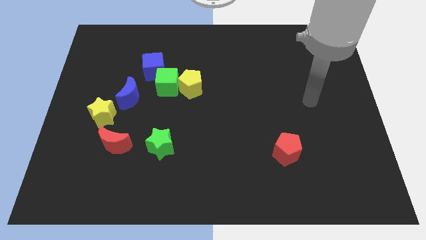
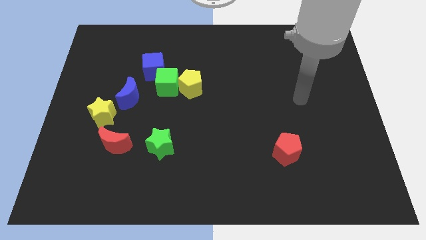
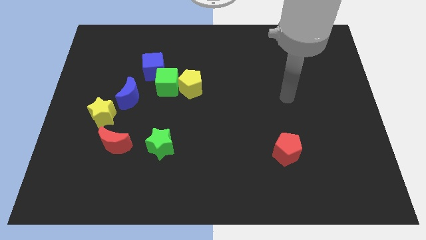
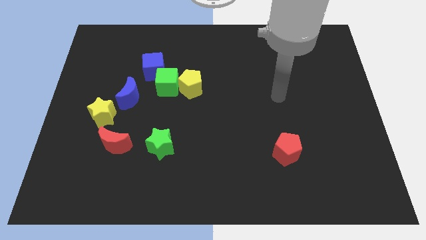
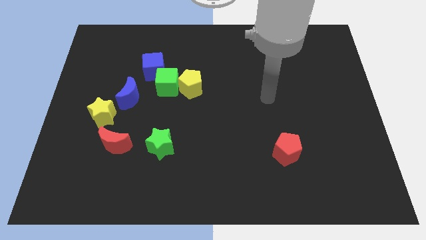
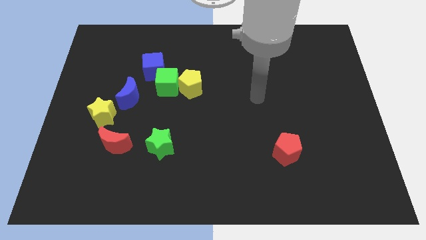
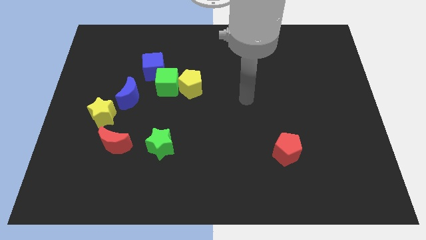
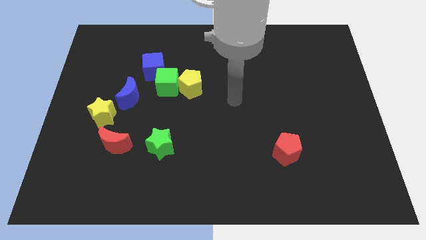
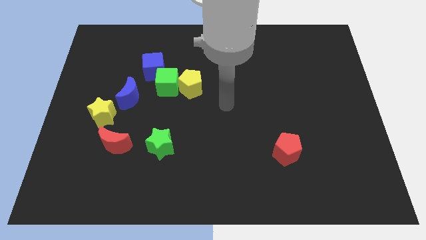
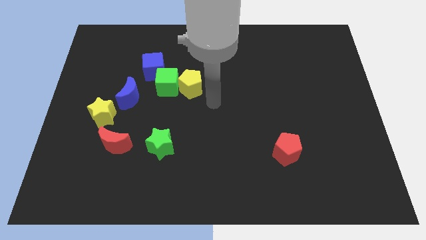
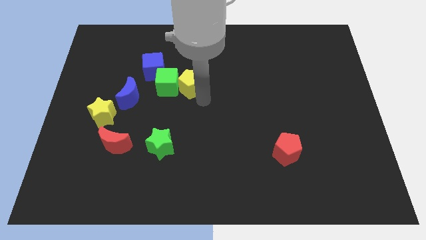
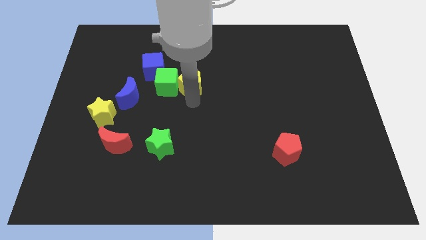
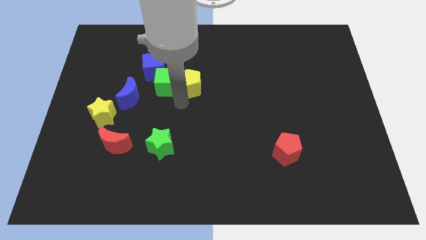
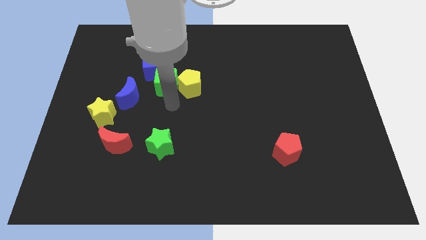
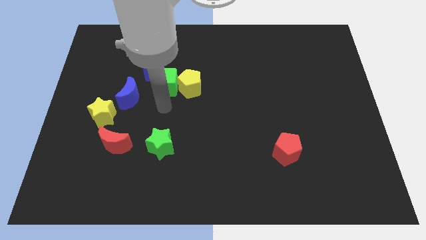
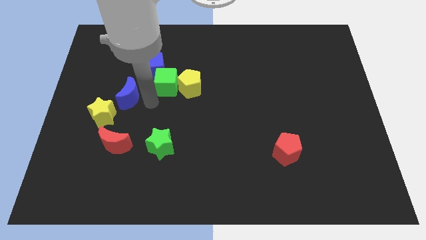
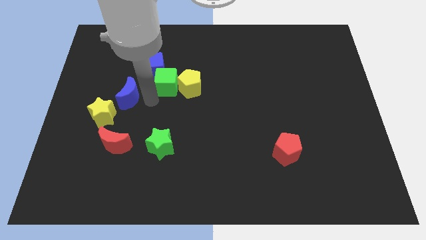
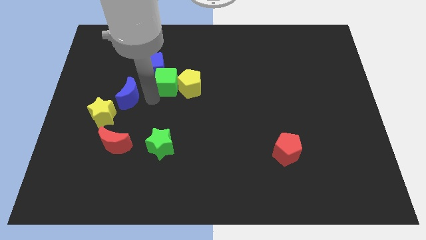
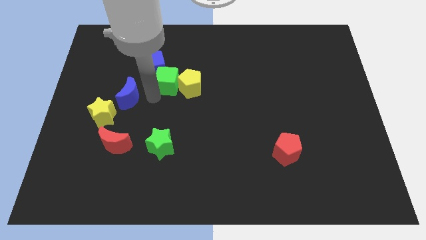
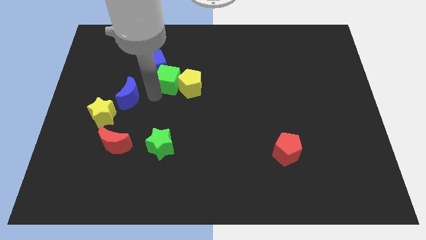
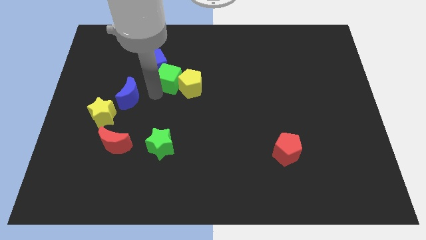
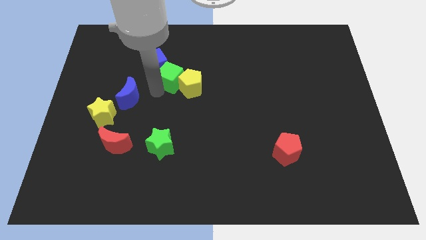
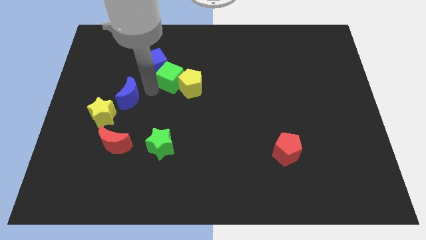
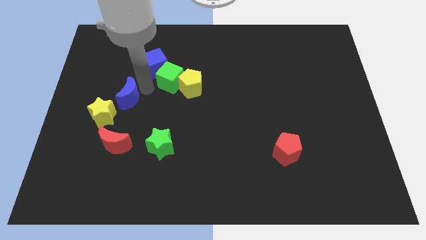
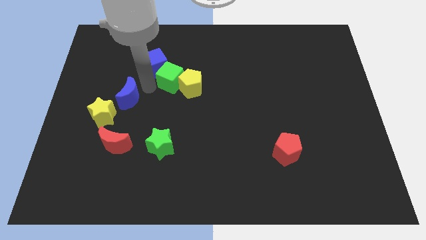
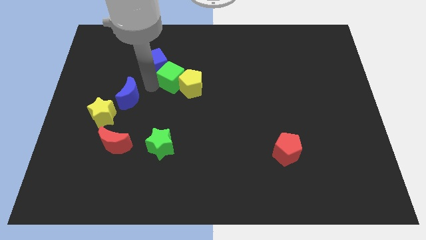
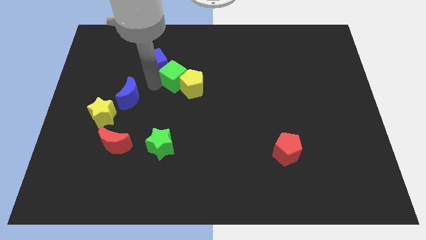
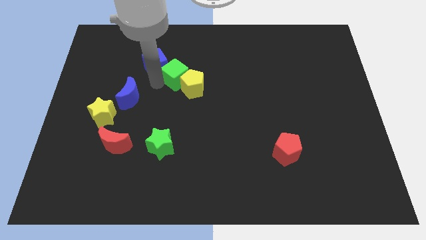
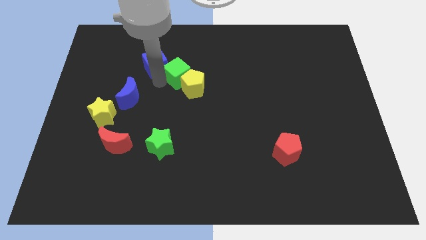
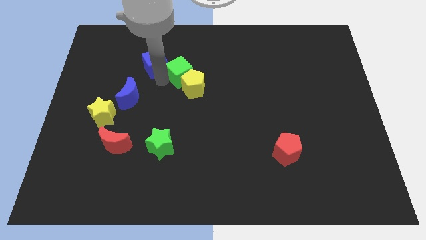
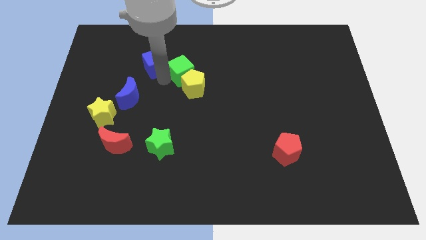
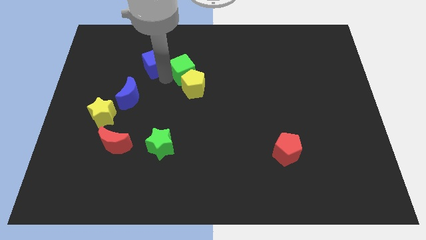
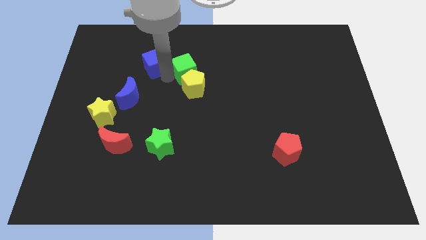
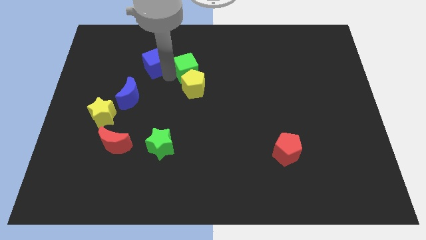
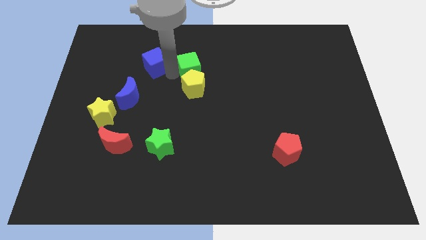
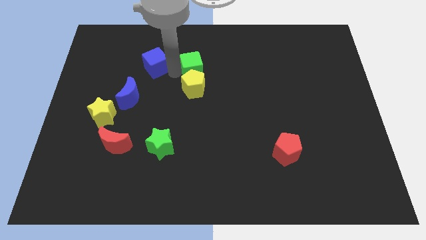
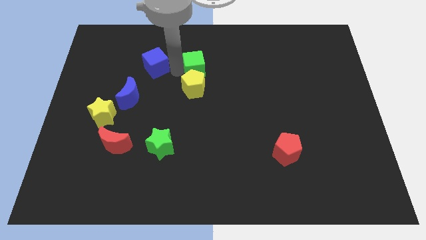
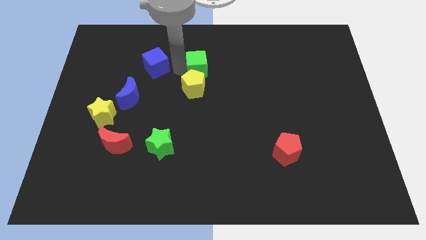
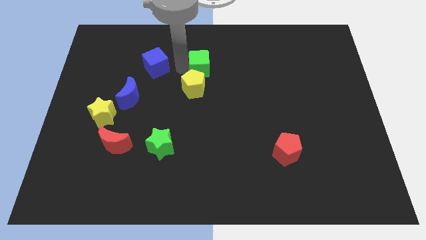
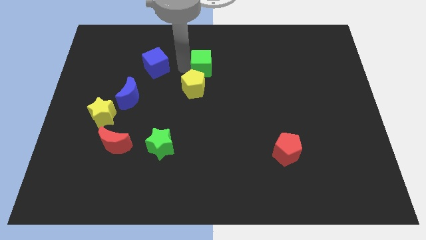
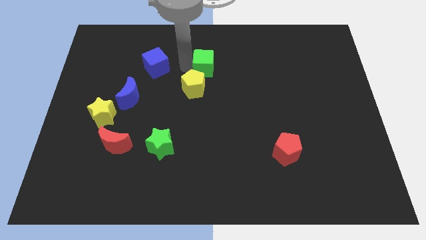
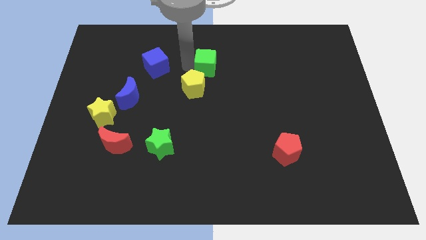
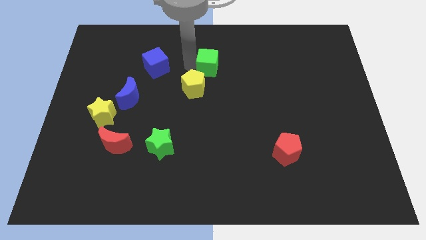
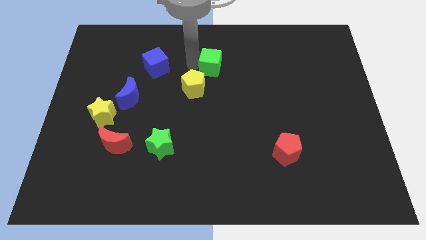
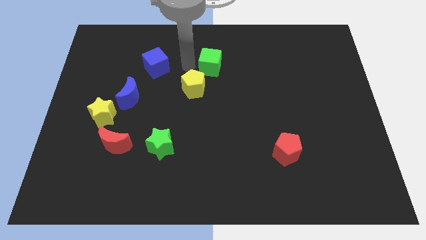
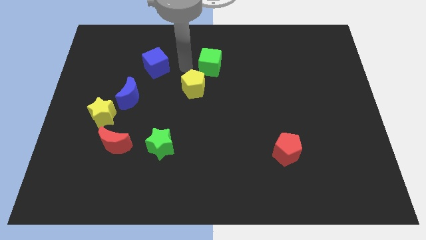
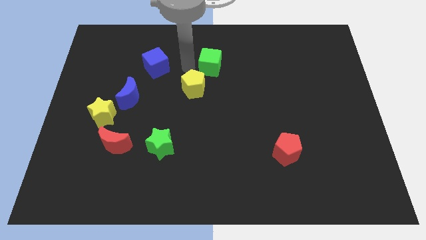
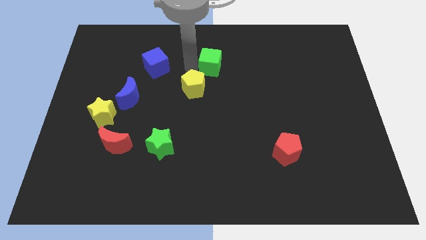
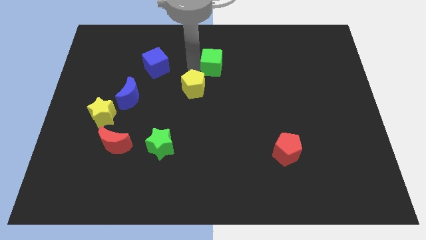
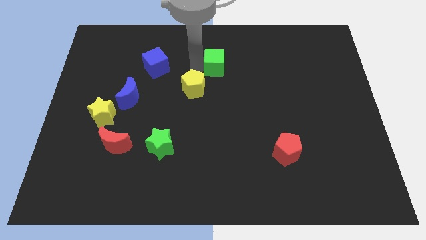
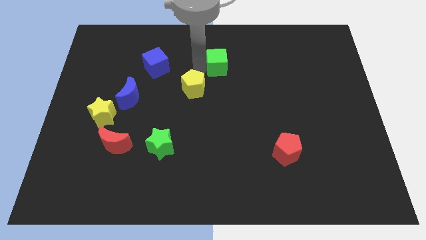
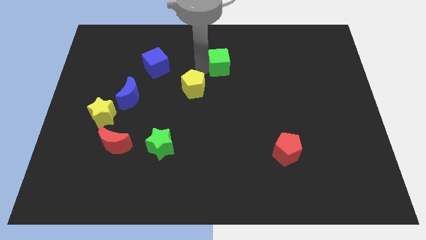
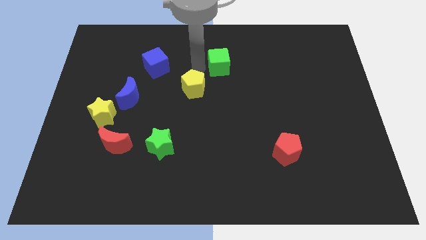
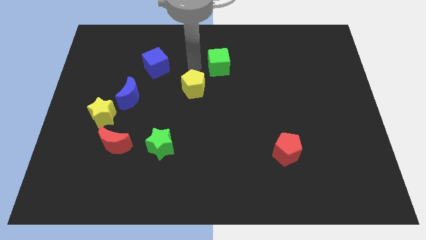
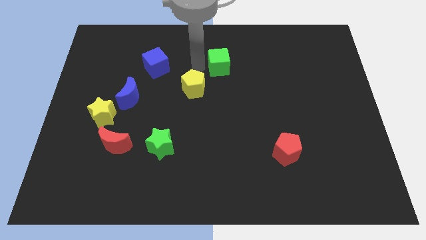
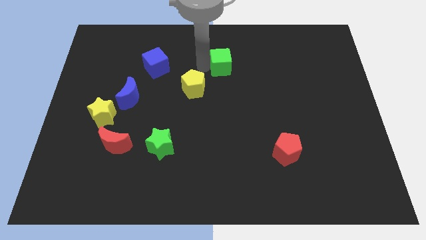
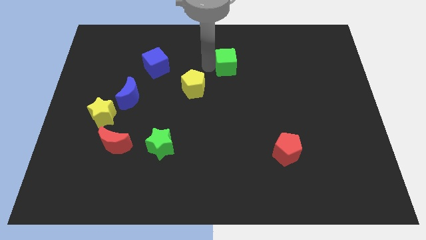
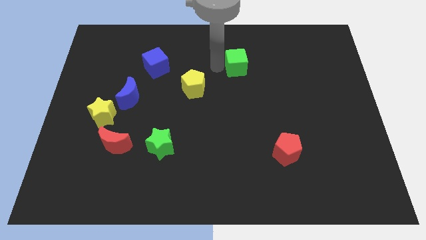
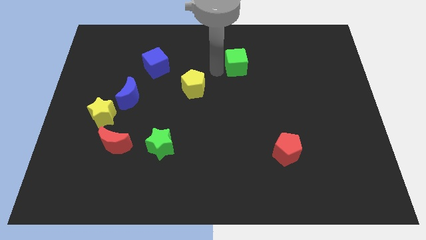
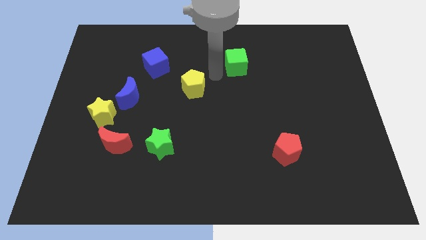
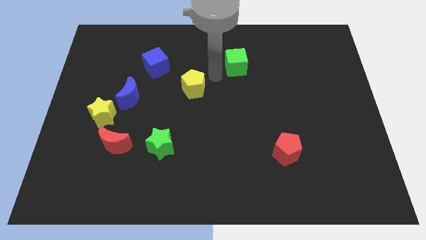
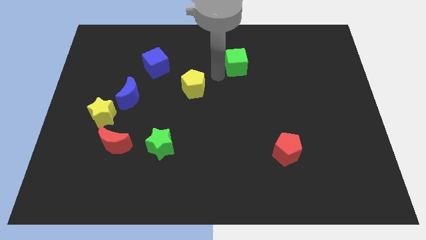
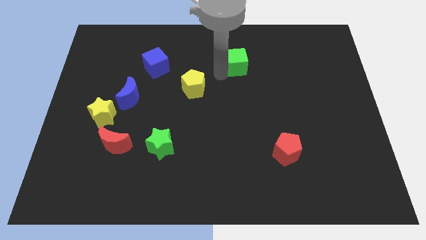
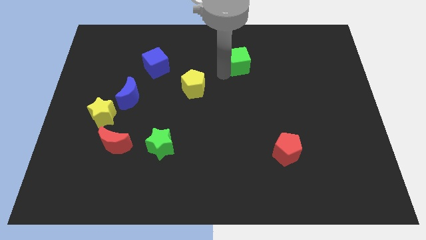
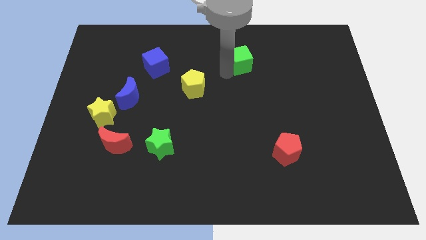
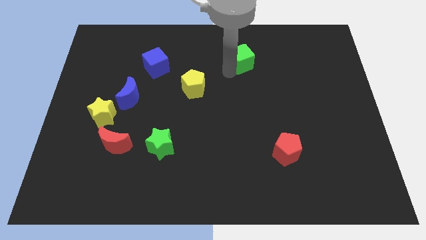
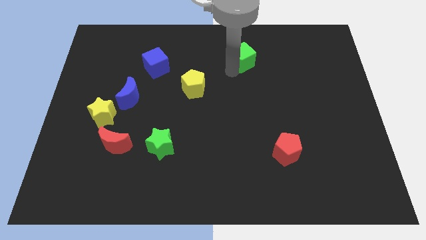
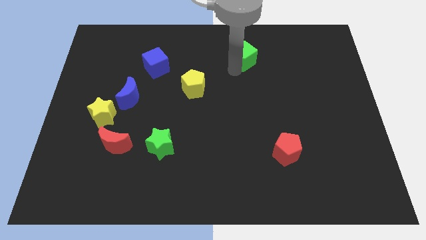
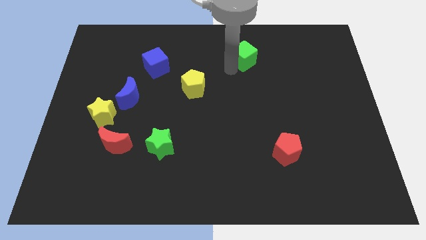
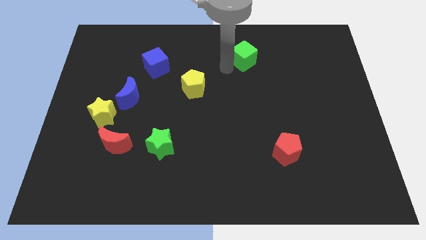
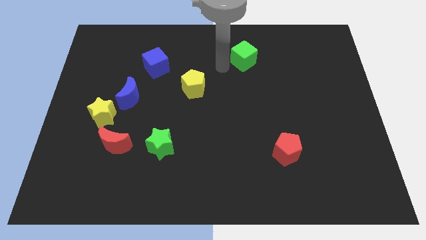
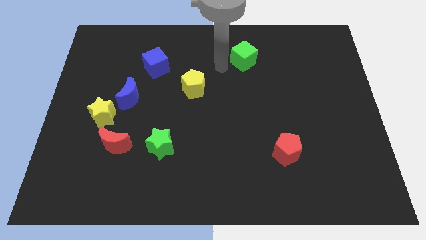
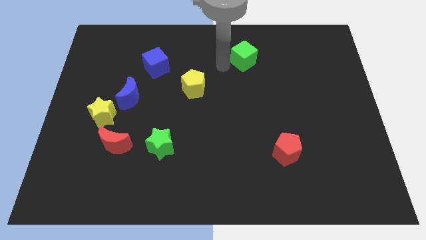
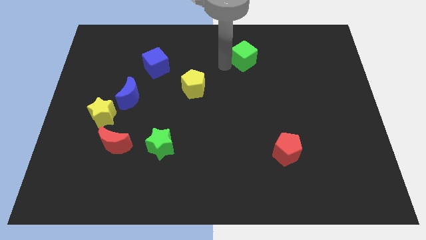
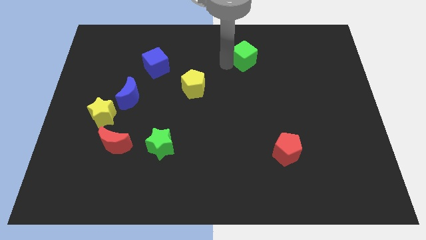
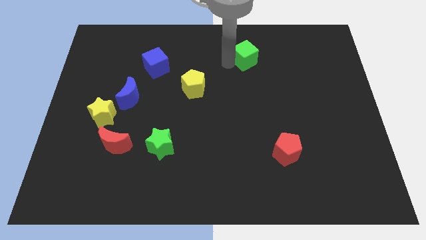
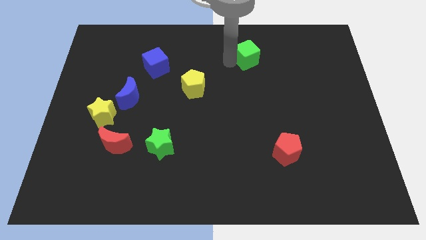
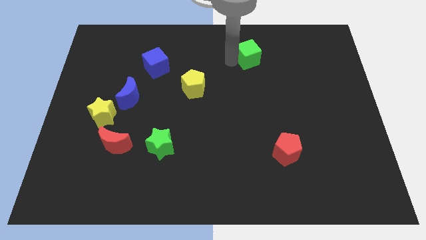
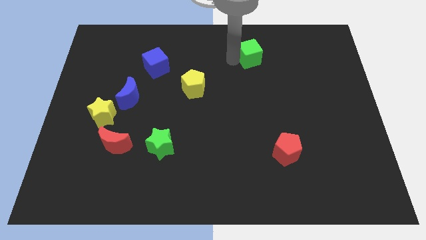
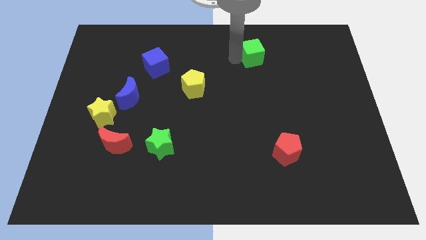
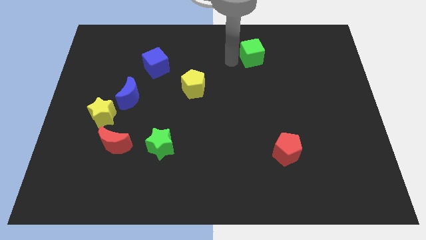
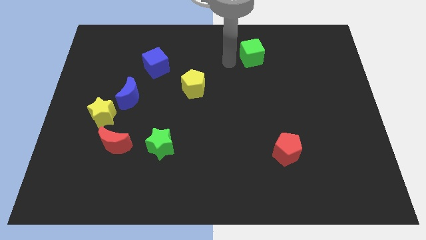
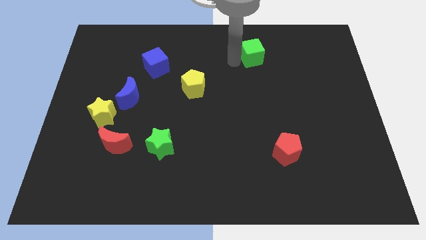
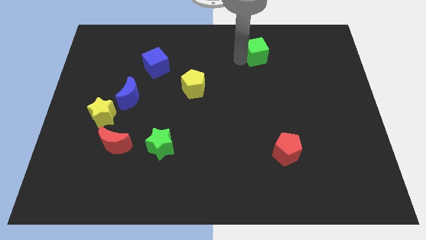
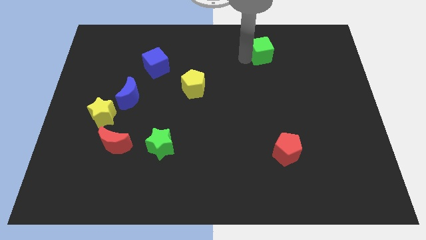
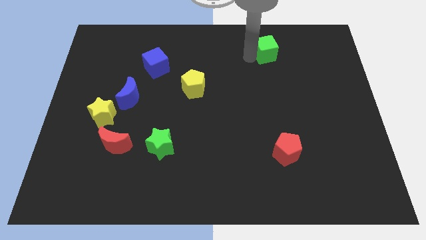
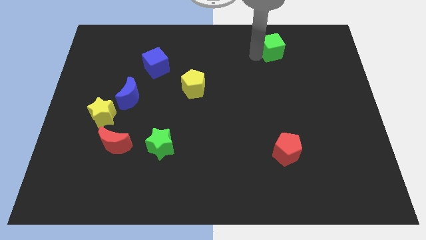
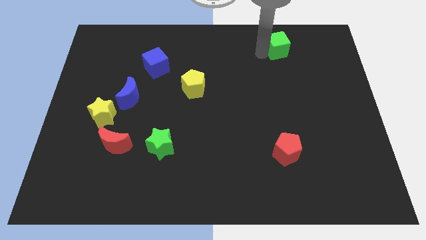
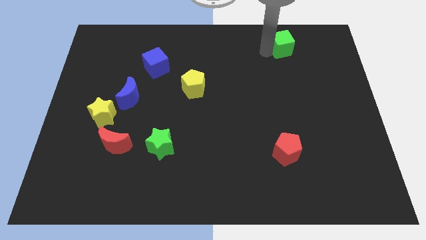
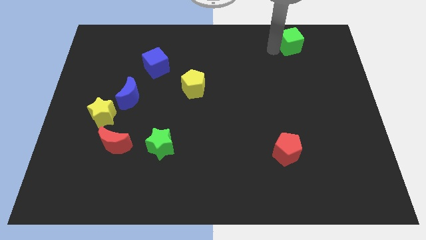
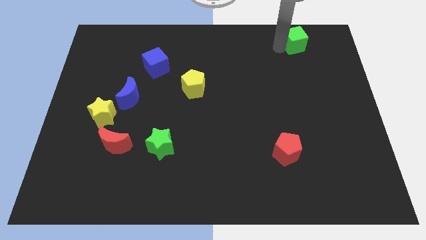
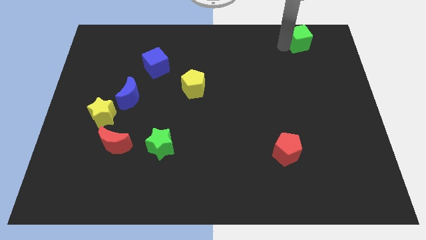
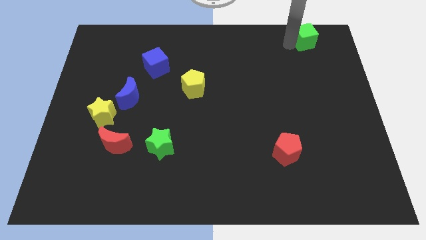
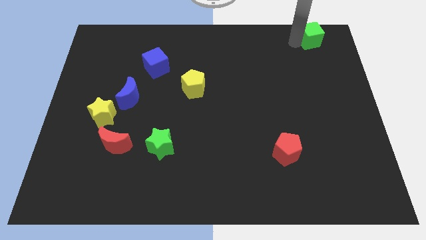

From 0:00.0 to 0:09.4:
push the green cube to the top right of the board
